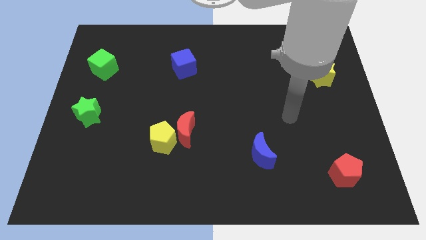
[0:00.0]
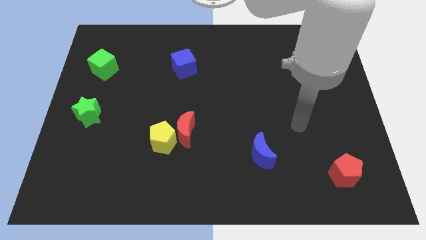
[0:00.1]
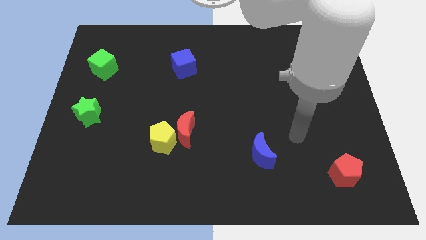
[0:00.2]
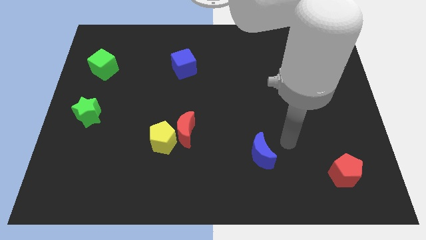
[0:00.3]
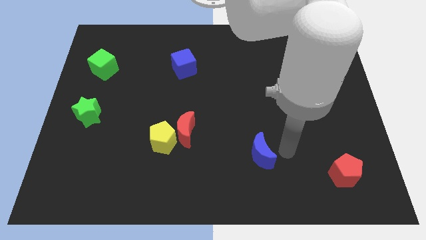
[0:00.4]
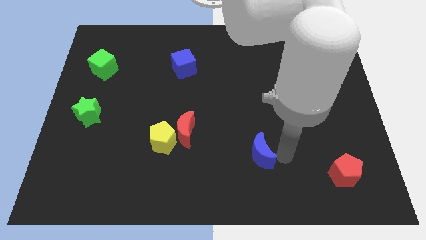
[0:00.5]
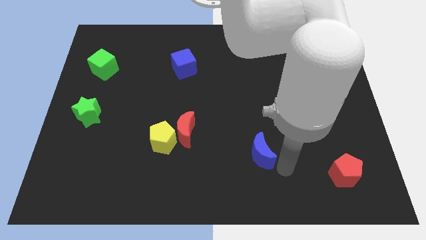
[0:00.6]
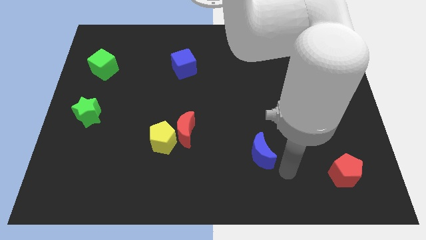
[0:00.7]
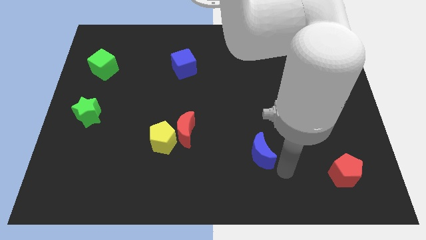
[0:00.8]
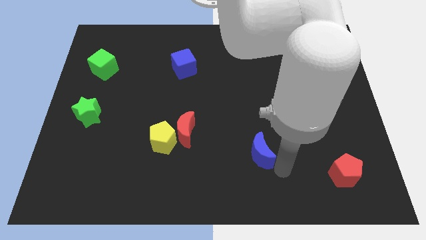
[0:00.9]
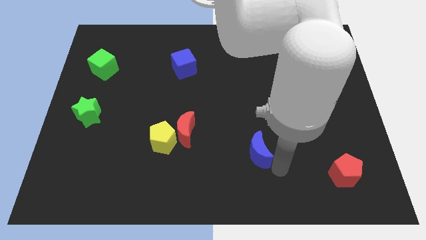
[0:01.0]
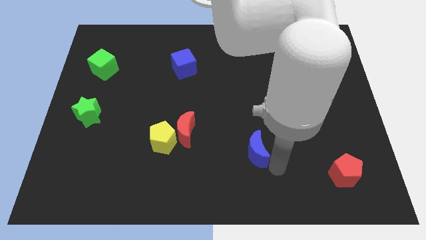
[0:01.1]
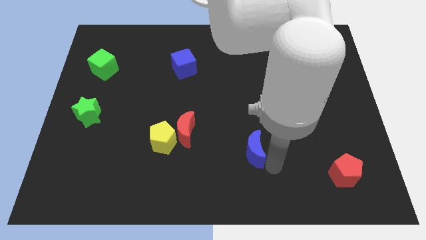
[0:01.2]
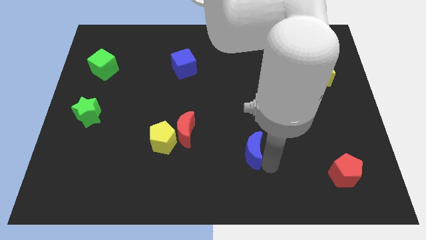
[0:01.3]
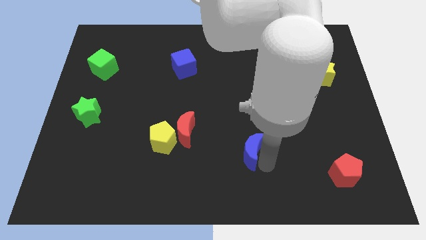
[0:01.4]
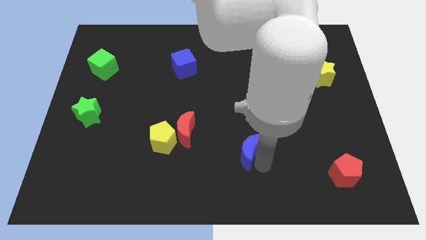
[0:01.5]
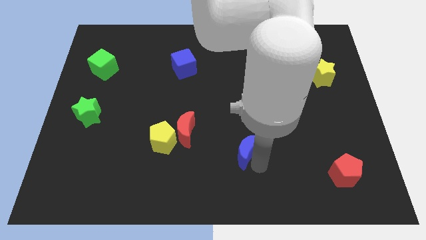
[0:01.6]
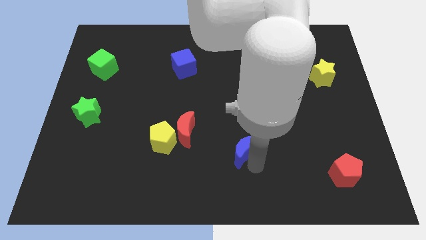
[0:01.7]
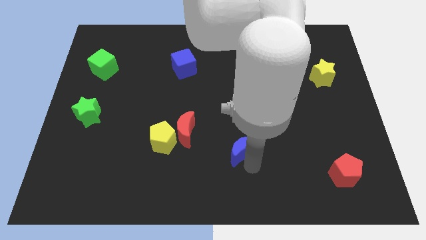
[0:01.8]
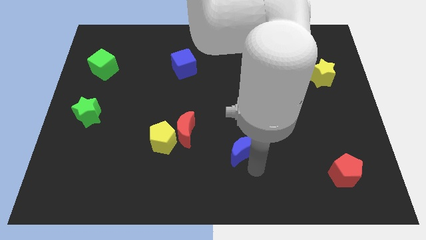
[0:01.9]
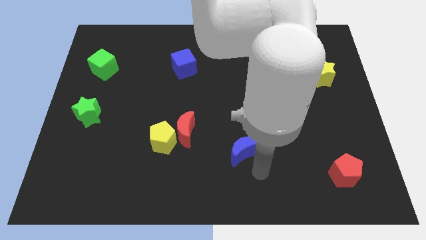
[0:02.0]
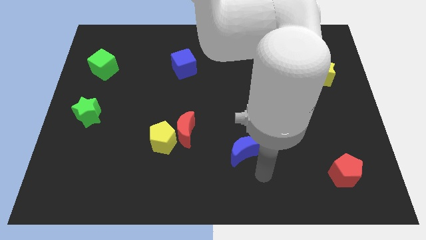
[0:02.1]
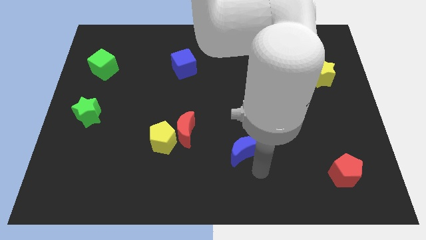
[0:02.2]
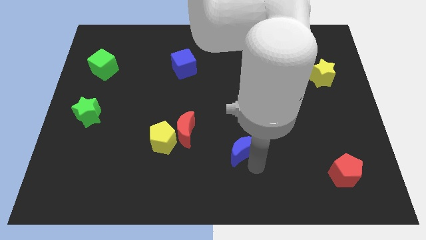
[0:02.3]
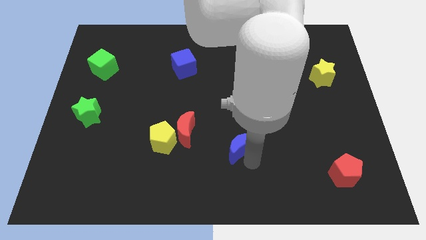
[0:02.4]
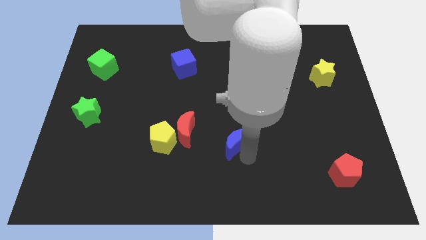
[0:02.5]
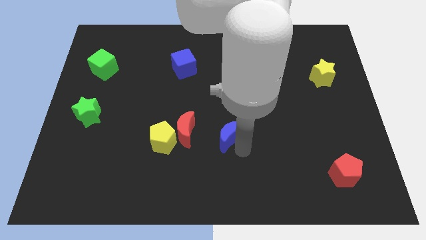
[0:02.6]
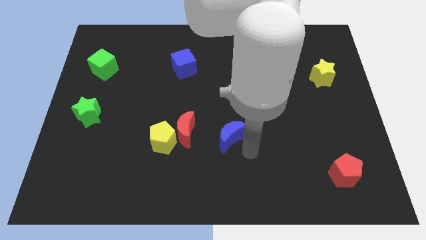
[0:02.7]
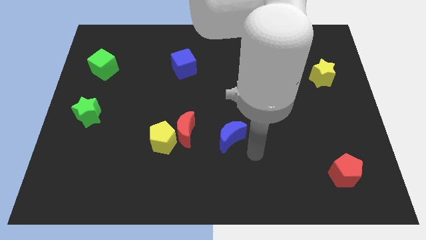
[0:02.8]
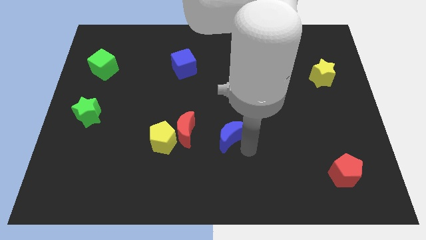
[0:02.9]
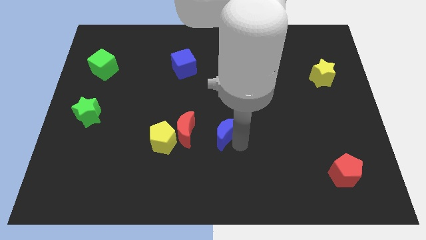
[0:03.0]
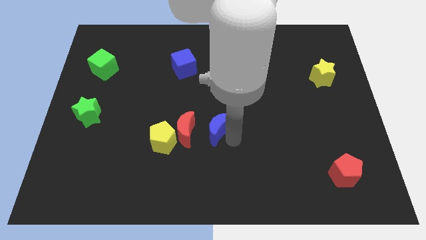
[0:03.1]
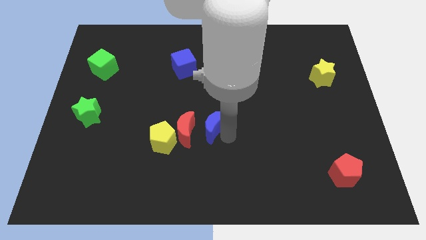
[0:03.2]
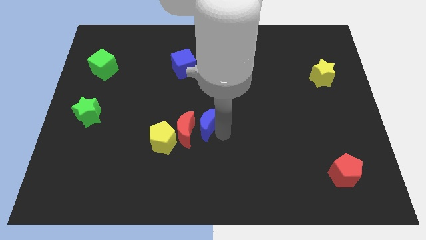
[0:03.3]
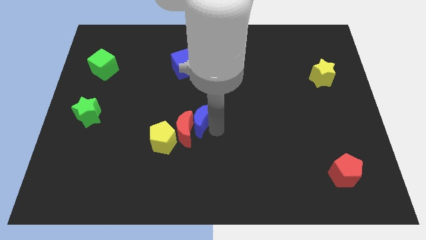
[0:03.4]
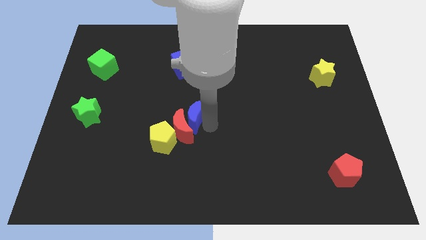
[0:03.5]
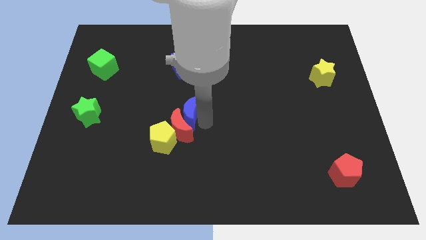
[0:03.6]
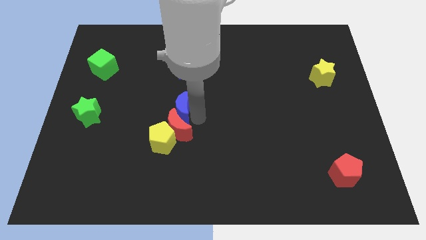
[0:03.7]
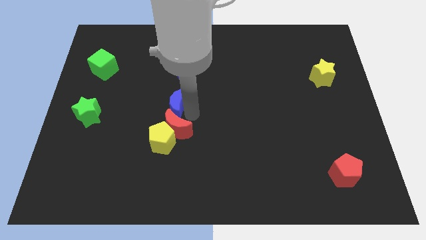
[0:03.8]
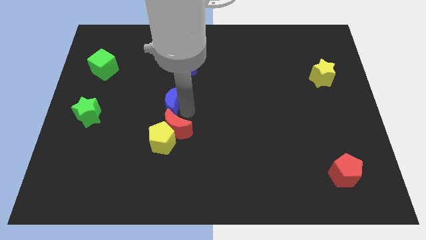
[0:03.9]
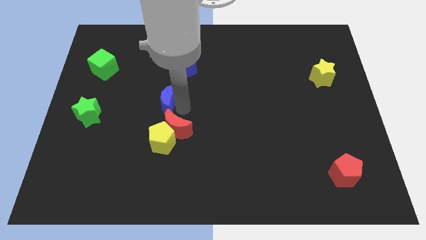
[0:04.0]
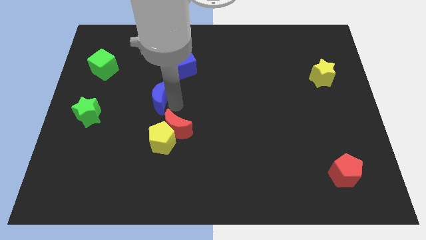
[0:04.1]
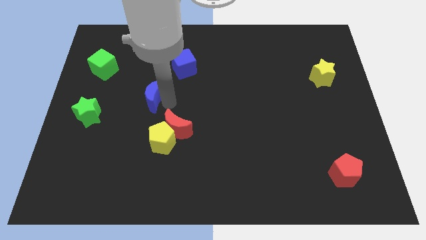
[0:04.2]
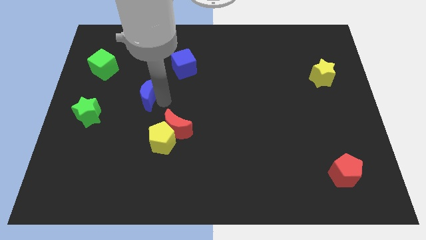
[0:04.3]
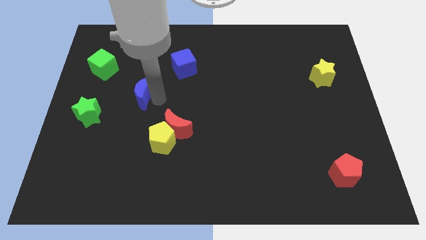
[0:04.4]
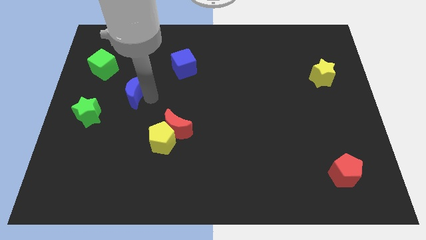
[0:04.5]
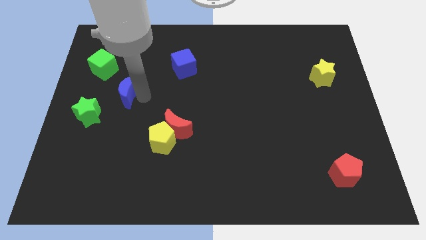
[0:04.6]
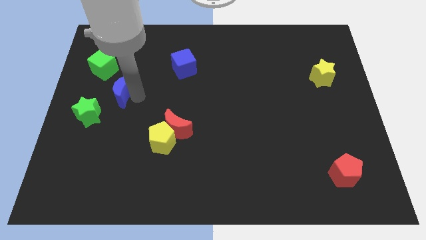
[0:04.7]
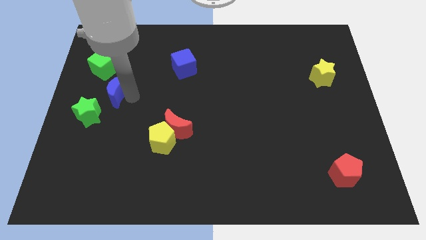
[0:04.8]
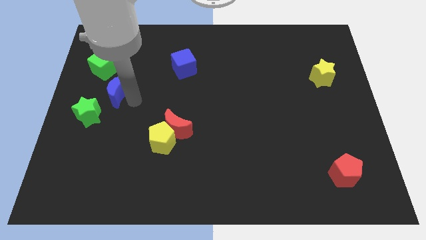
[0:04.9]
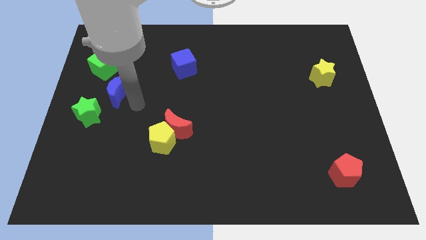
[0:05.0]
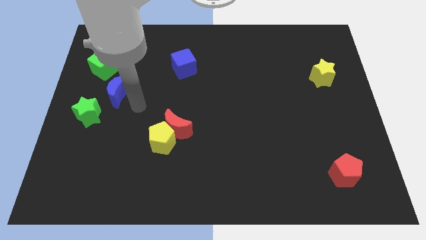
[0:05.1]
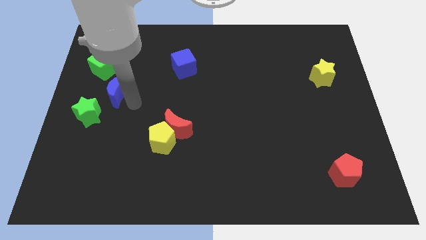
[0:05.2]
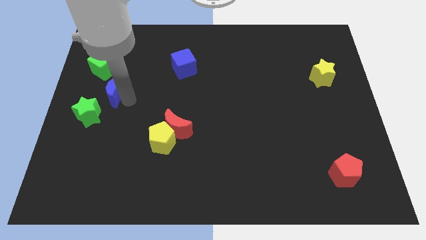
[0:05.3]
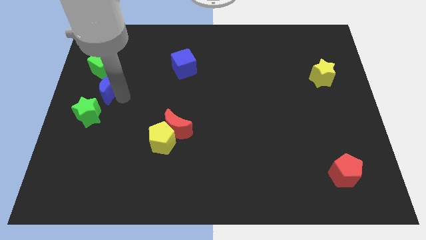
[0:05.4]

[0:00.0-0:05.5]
move the blue moon to the top side of the green star

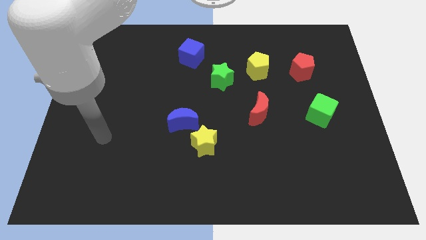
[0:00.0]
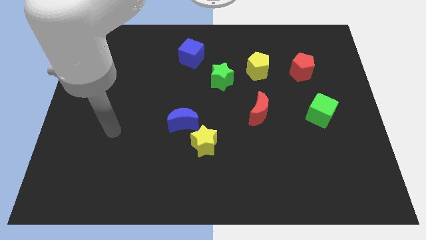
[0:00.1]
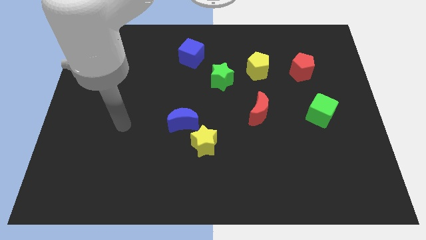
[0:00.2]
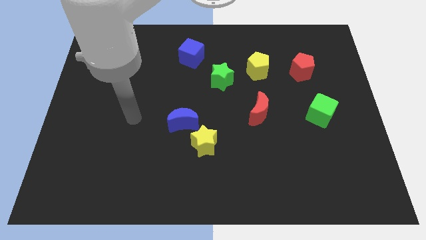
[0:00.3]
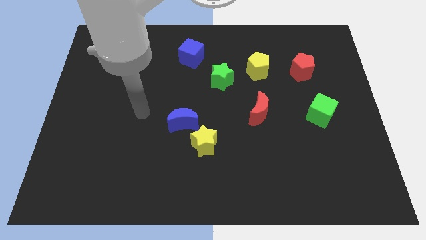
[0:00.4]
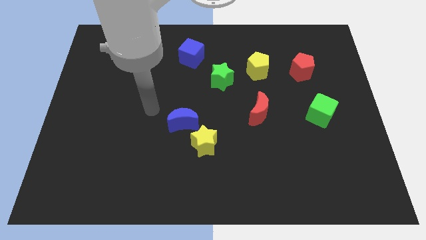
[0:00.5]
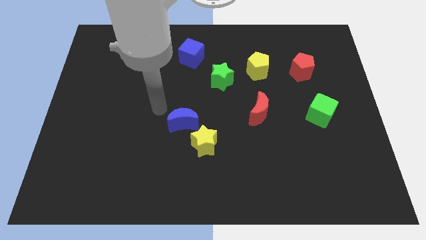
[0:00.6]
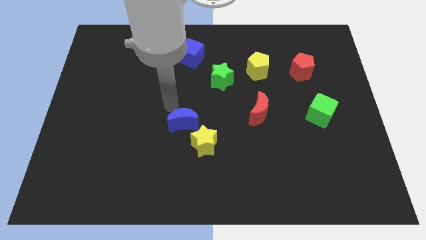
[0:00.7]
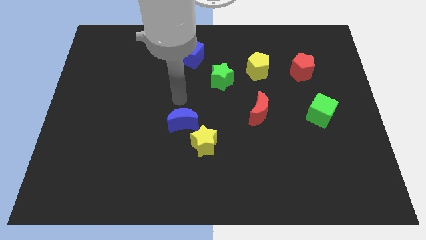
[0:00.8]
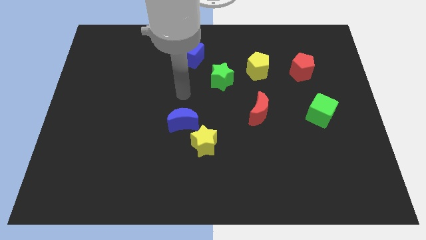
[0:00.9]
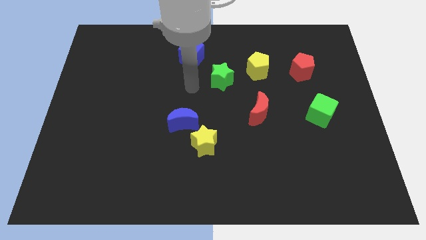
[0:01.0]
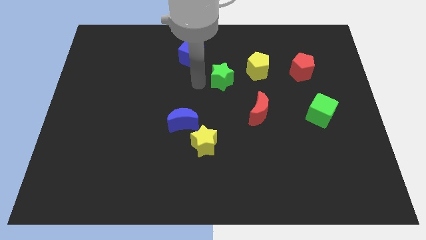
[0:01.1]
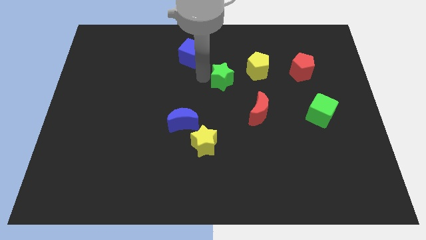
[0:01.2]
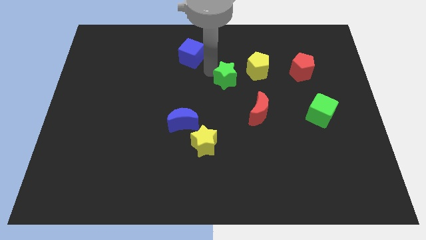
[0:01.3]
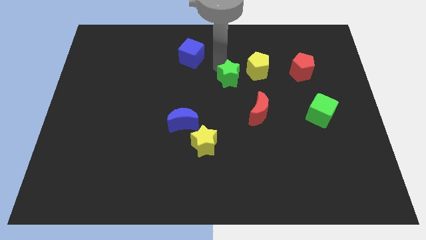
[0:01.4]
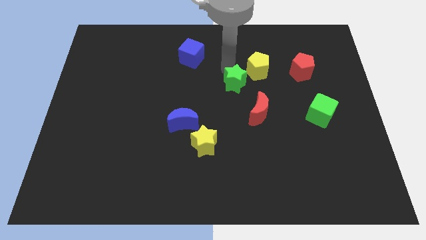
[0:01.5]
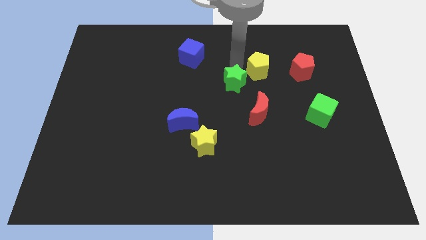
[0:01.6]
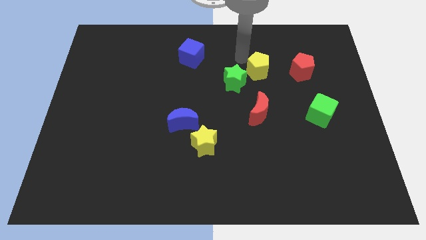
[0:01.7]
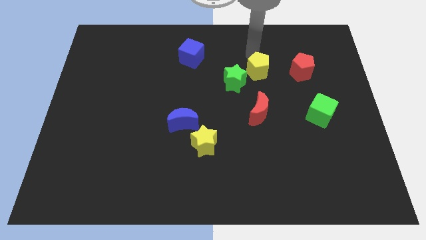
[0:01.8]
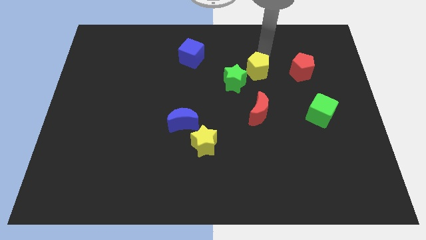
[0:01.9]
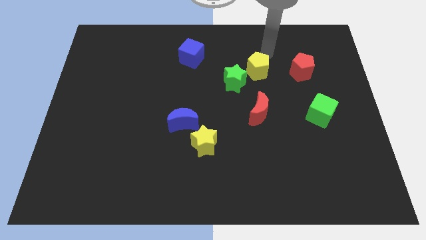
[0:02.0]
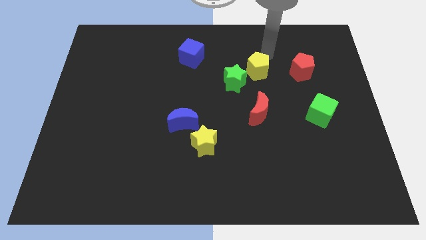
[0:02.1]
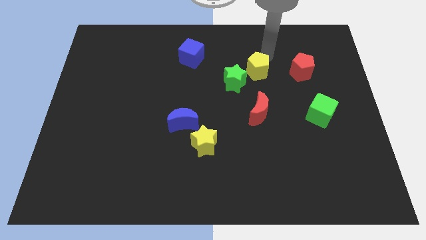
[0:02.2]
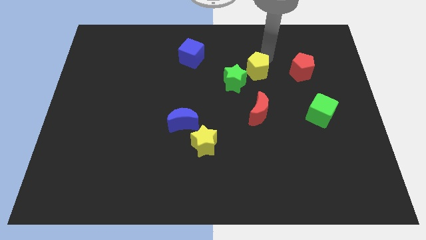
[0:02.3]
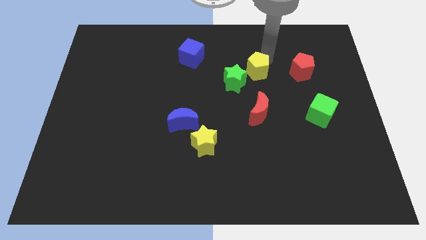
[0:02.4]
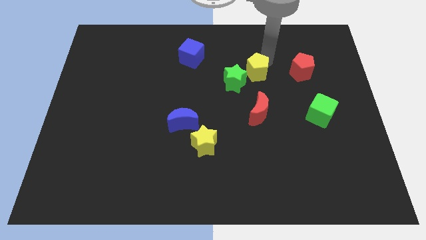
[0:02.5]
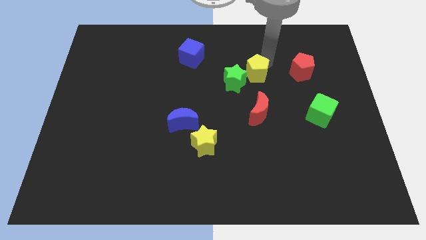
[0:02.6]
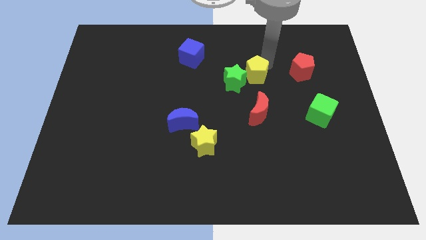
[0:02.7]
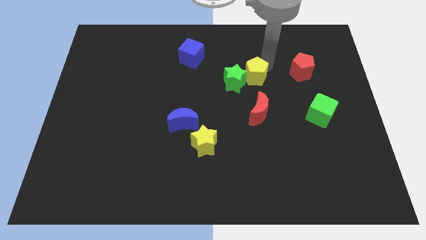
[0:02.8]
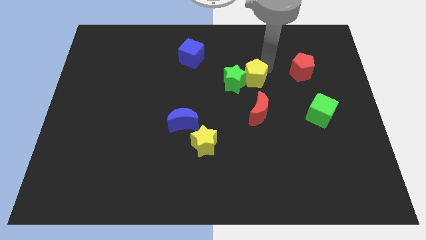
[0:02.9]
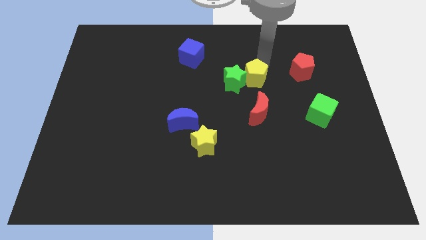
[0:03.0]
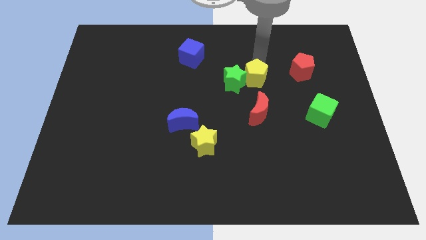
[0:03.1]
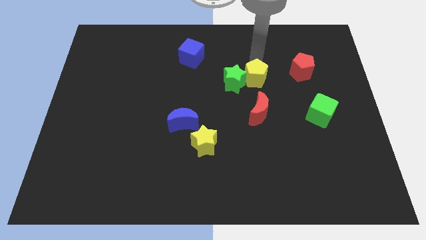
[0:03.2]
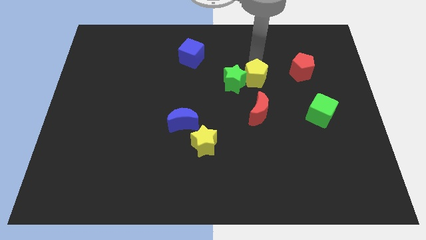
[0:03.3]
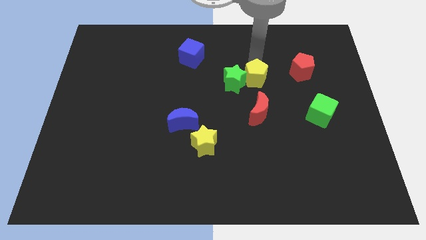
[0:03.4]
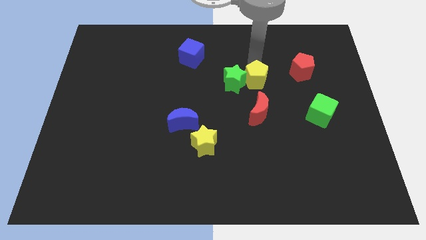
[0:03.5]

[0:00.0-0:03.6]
push the yellow pentagon diagonally down and to the right of the green star
